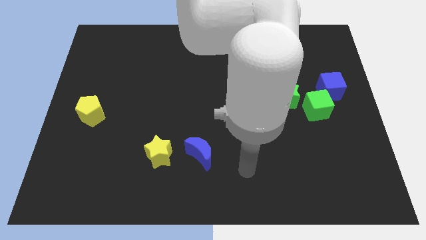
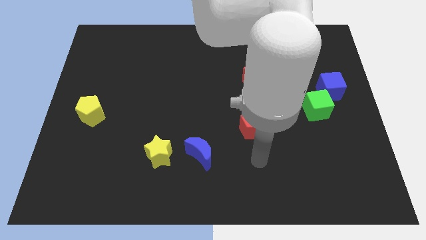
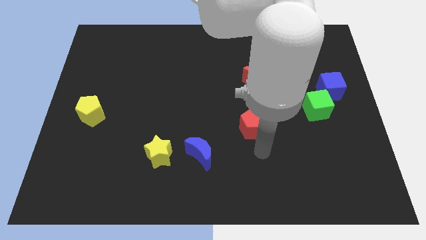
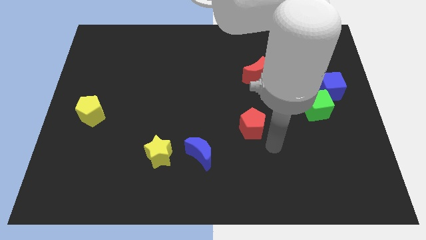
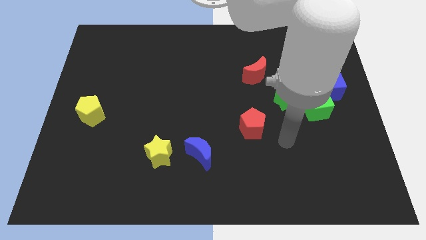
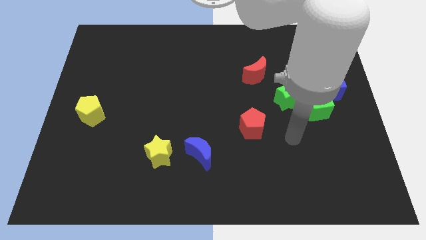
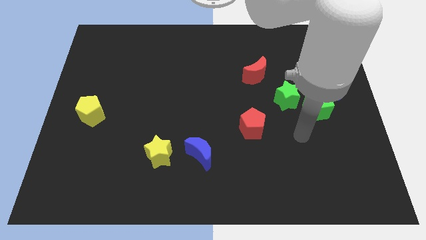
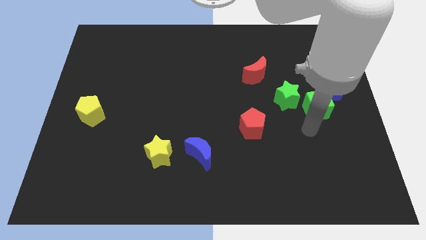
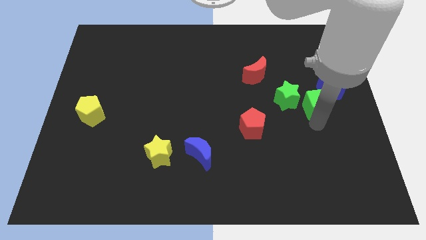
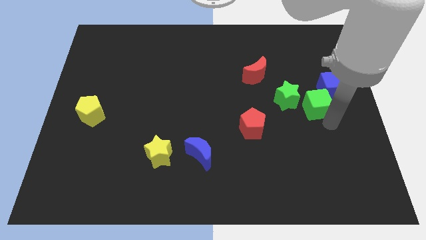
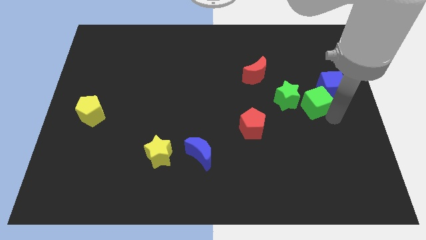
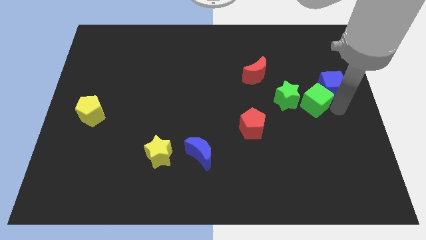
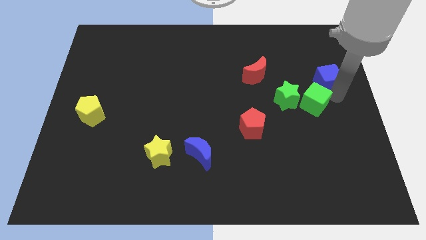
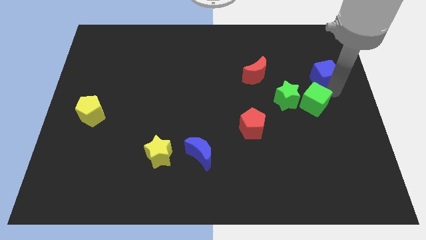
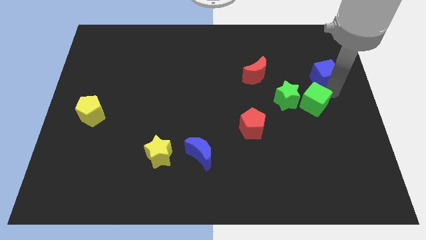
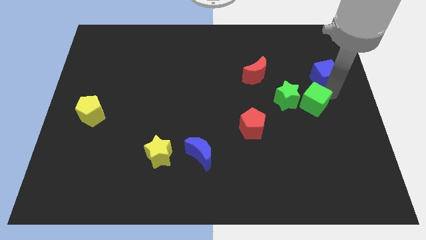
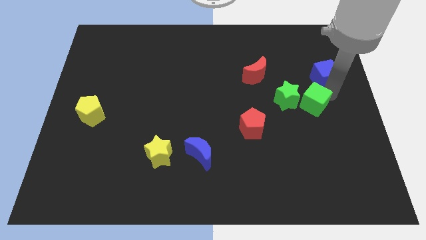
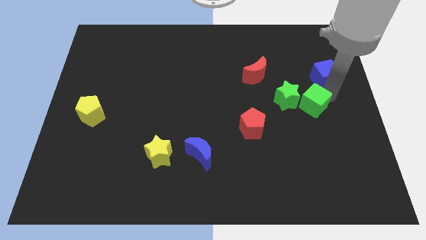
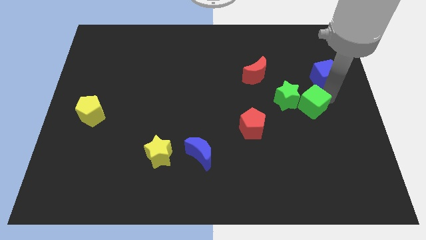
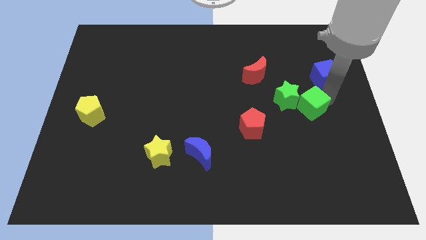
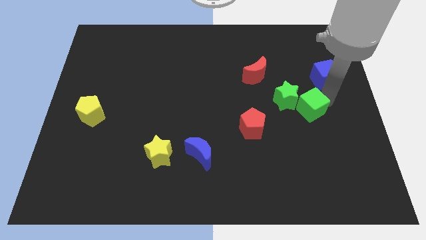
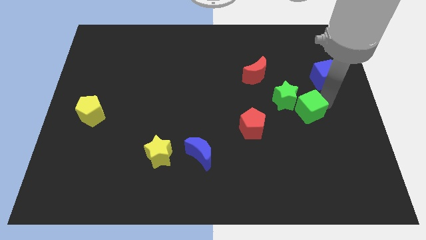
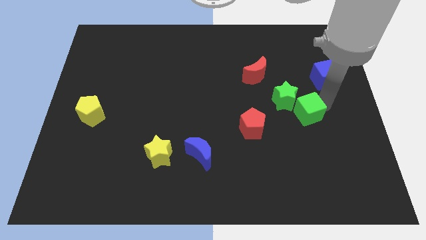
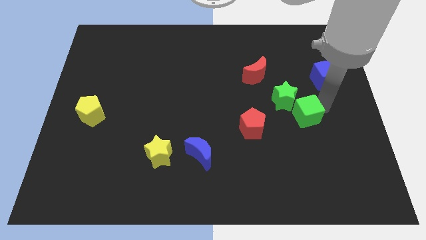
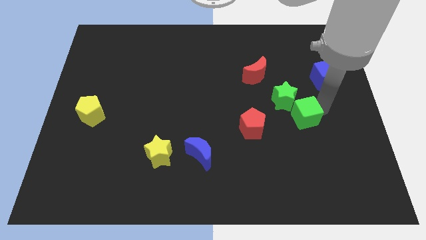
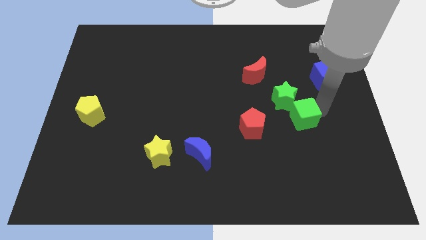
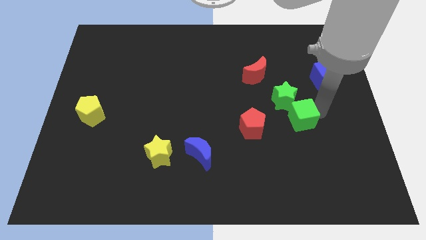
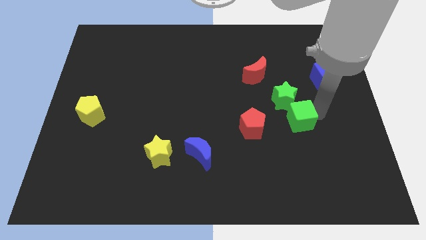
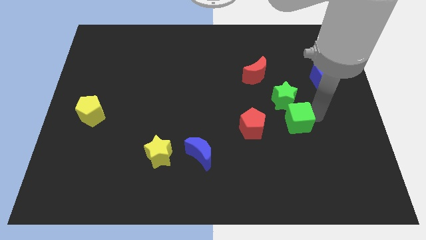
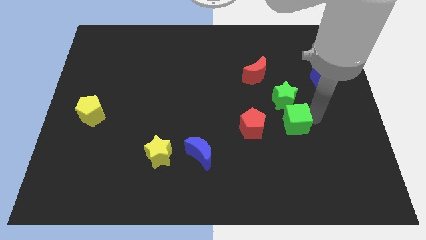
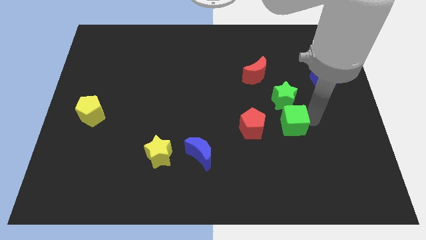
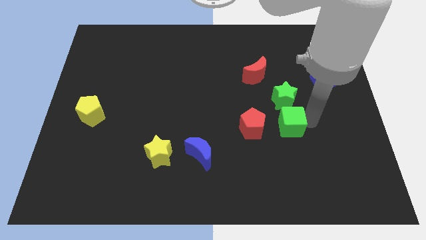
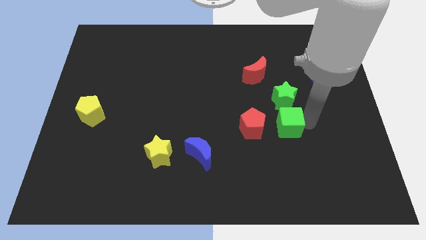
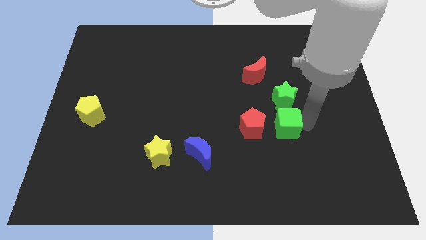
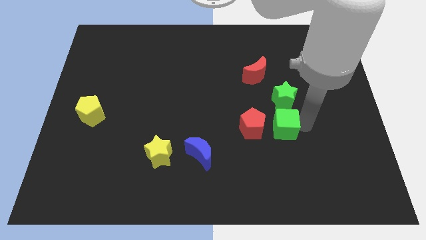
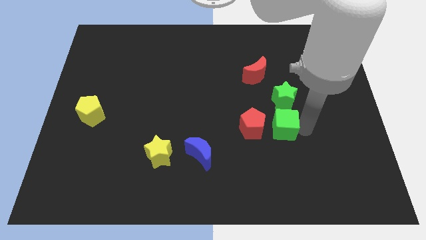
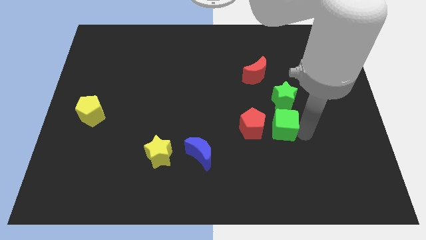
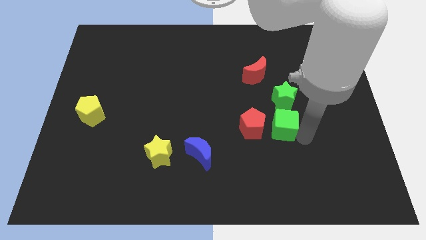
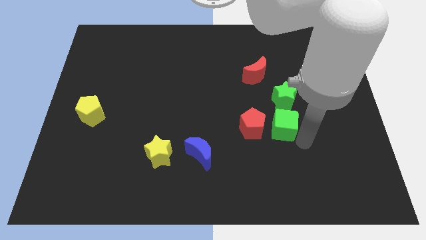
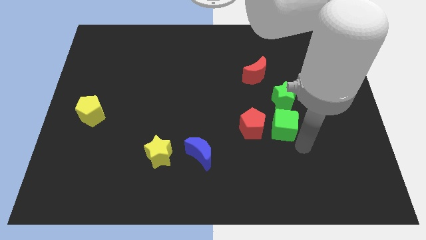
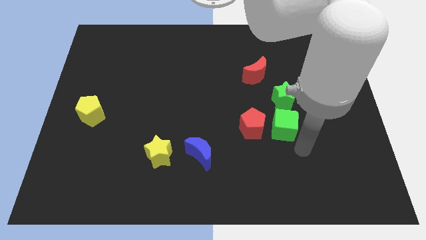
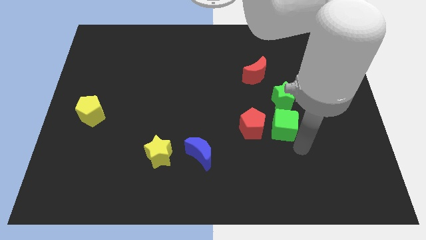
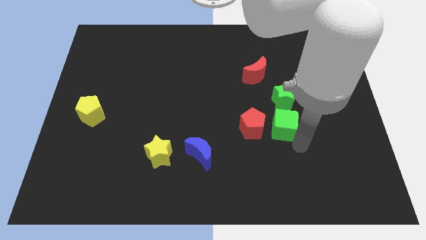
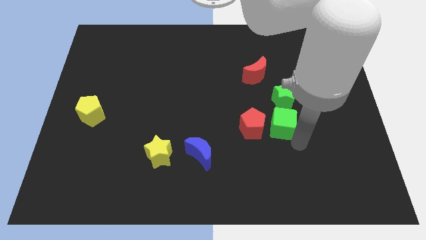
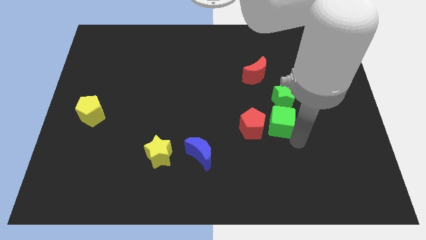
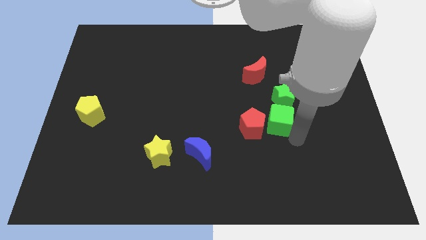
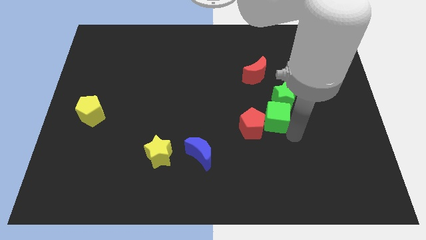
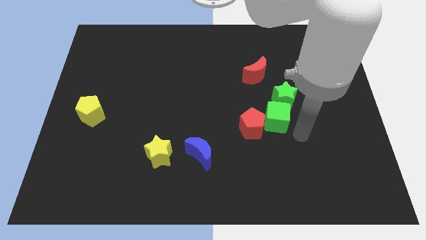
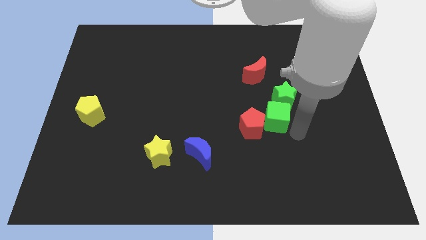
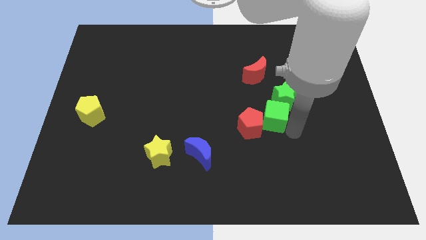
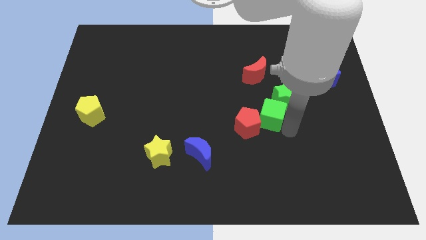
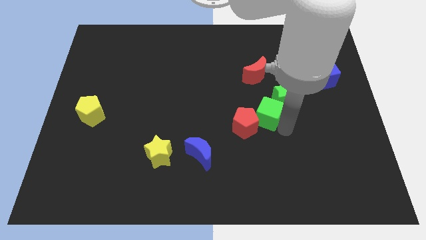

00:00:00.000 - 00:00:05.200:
move the green cube to the left of the green star

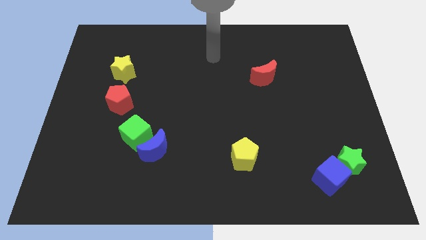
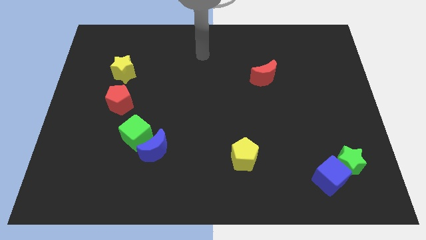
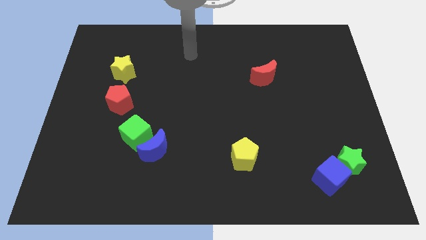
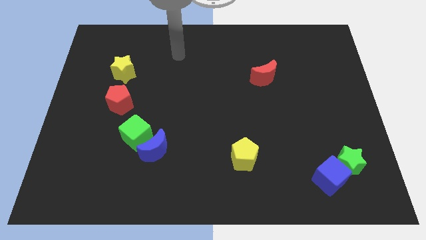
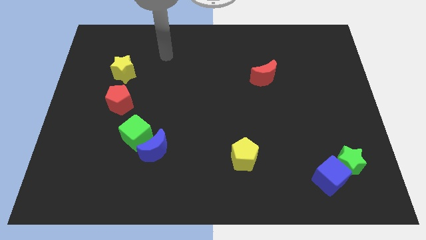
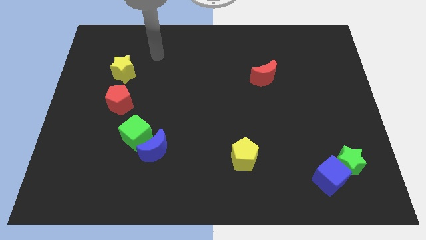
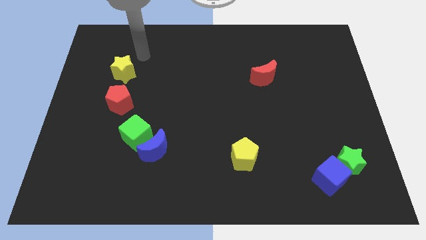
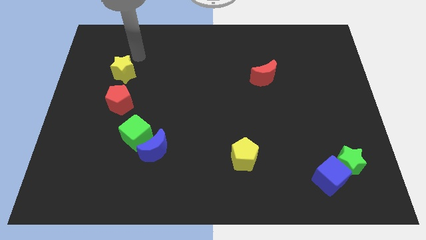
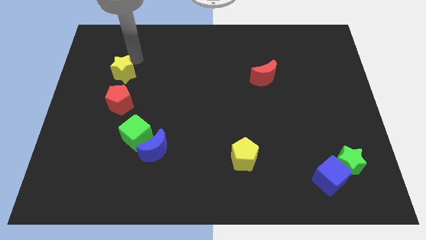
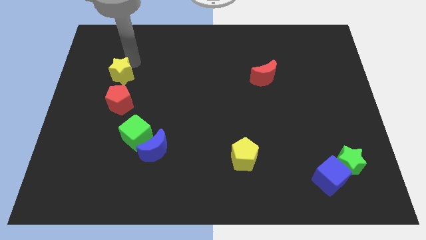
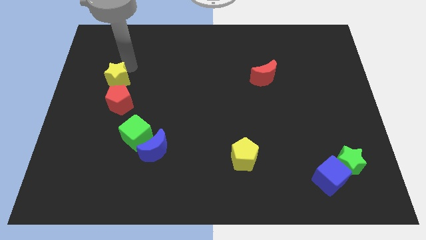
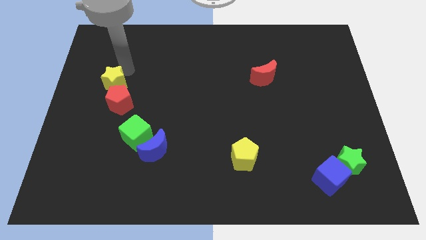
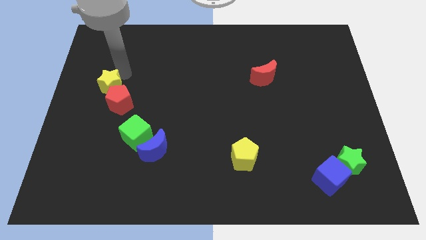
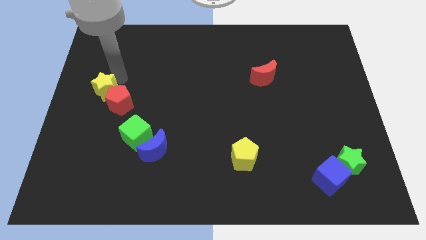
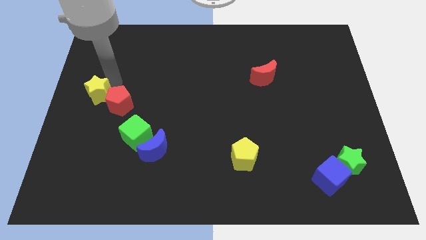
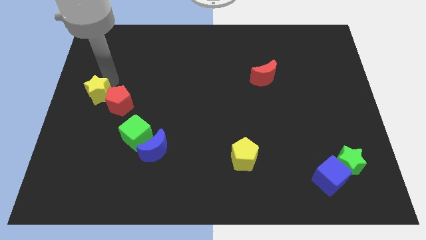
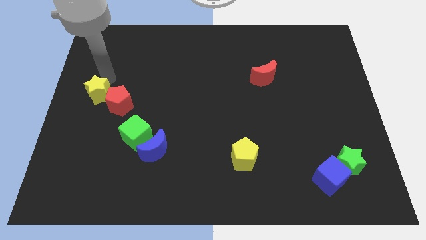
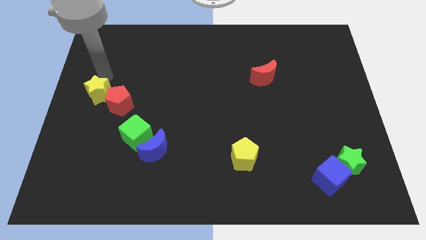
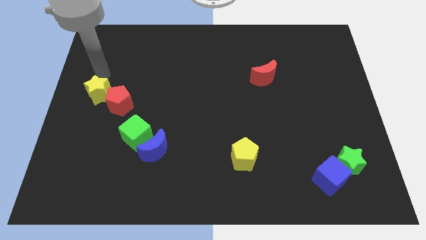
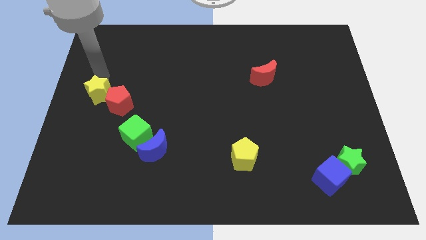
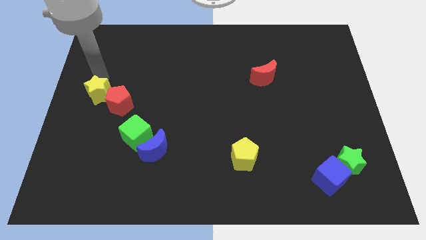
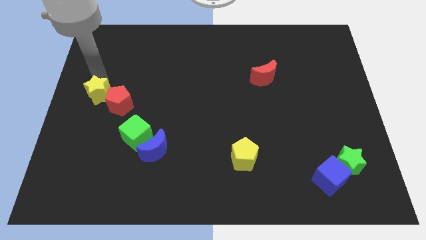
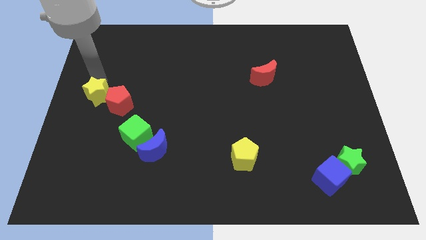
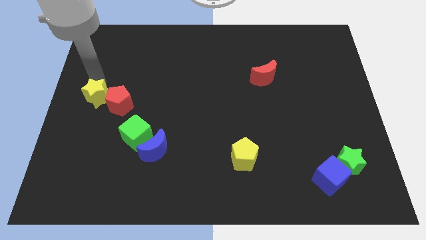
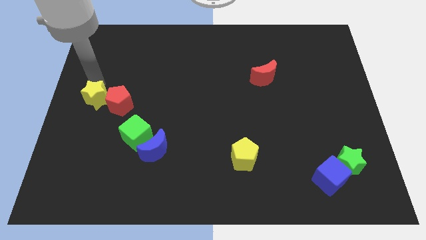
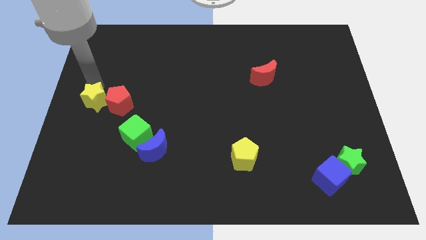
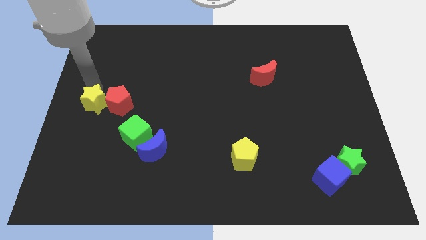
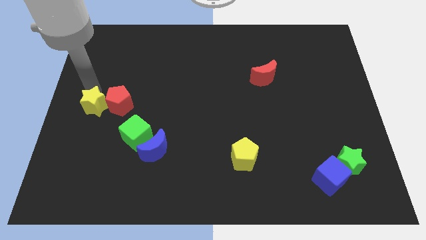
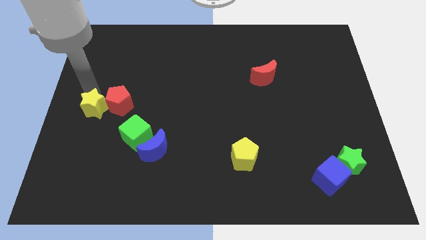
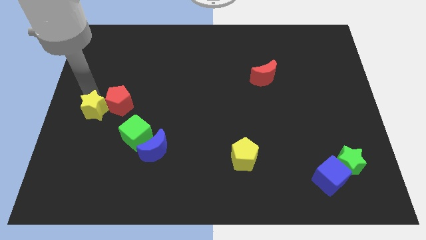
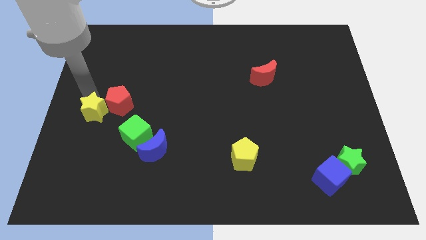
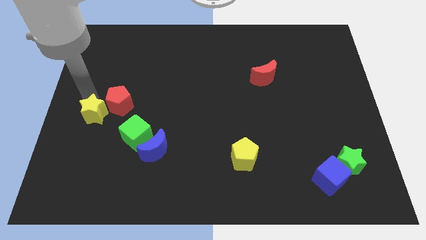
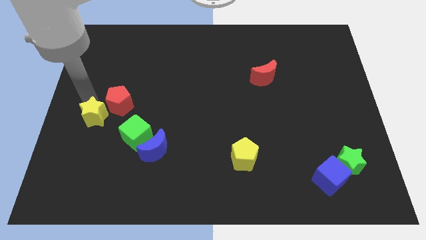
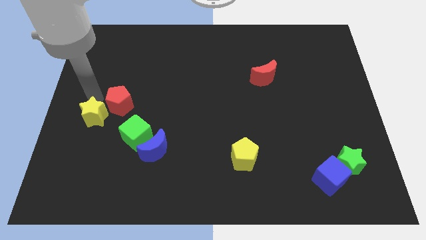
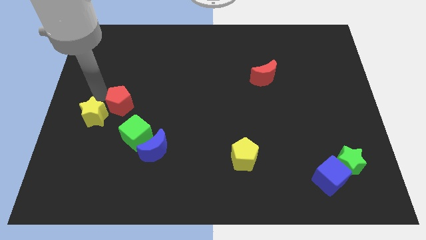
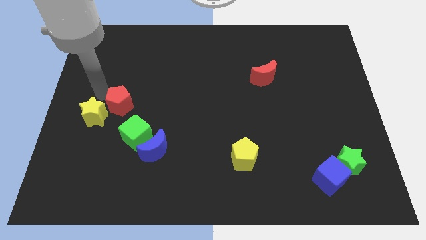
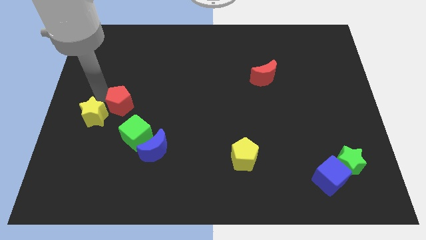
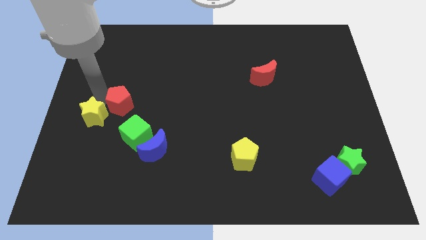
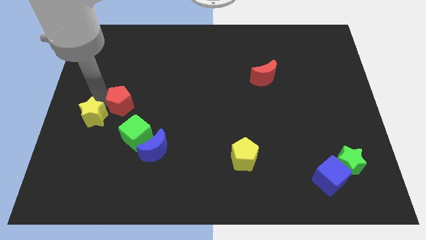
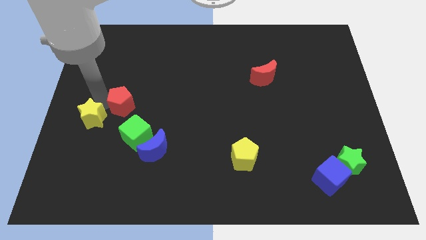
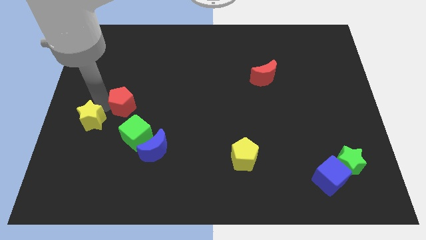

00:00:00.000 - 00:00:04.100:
slide the yellow star to the left side of the green cube
